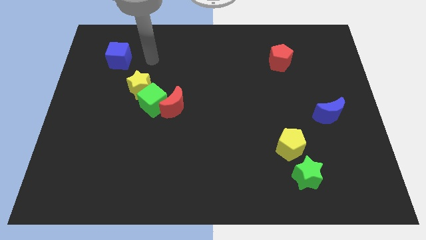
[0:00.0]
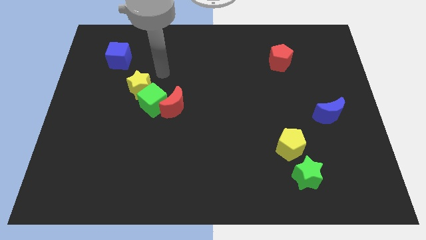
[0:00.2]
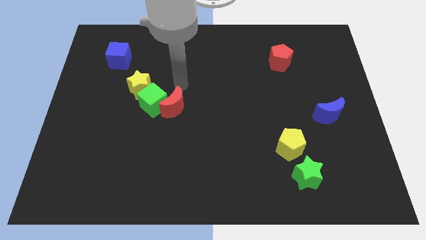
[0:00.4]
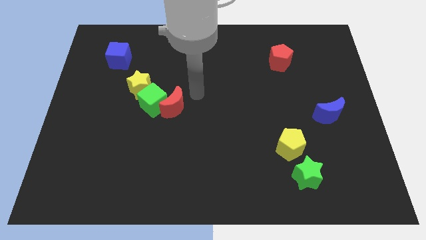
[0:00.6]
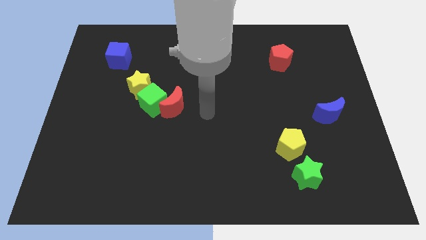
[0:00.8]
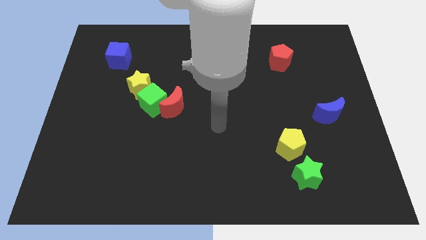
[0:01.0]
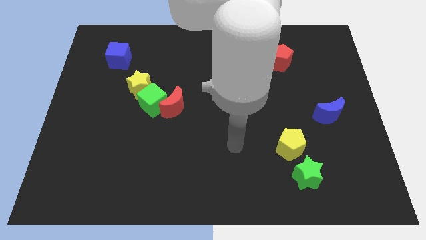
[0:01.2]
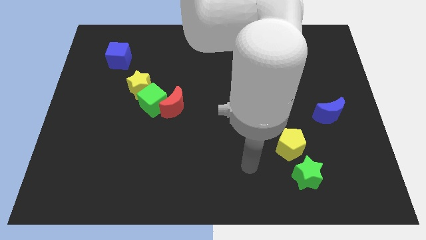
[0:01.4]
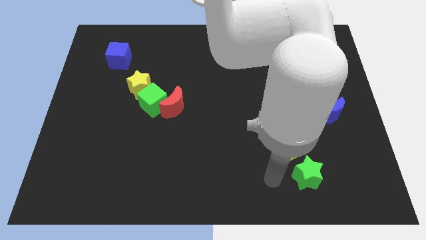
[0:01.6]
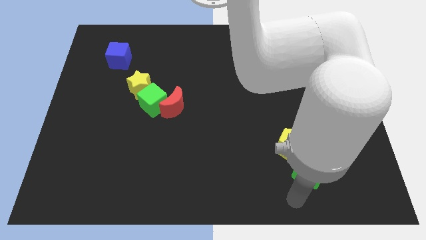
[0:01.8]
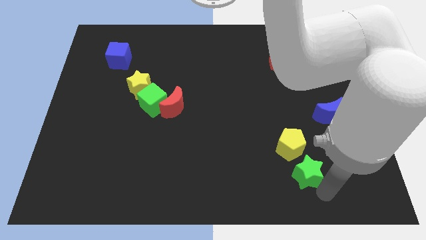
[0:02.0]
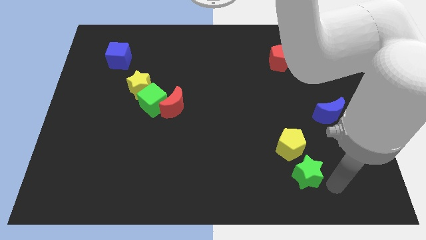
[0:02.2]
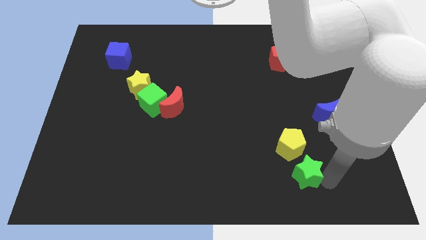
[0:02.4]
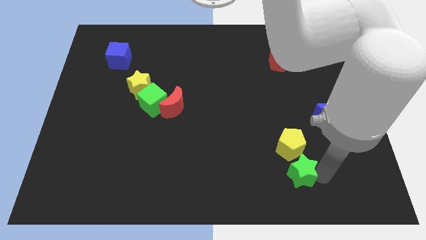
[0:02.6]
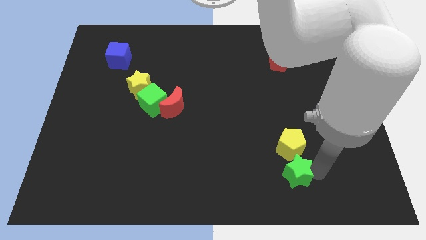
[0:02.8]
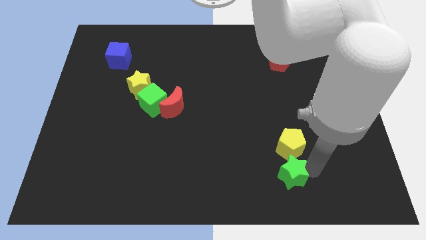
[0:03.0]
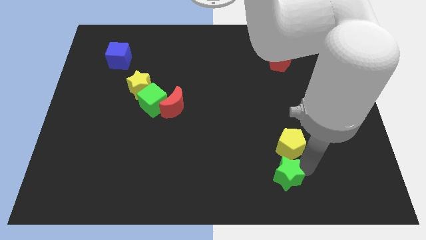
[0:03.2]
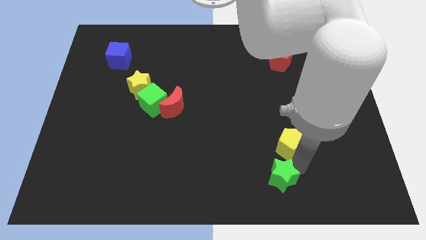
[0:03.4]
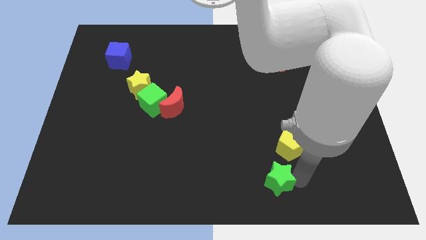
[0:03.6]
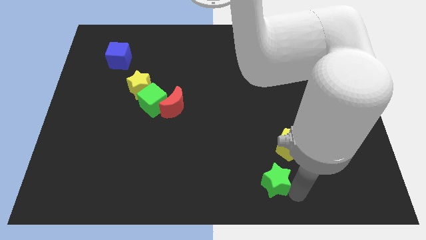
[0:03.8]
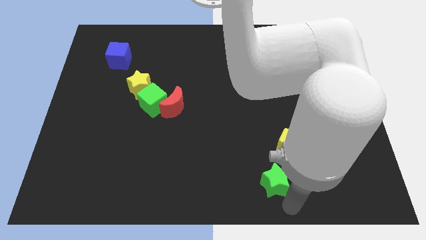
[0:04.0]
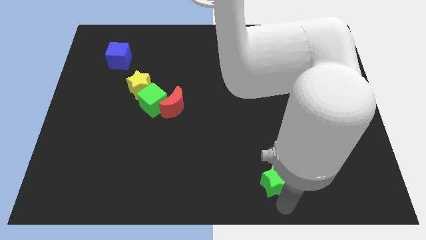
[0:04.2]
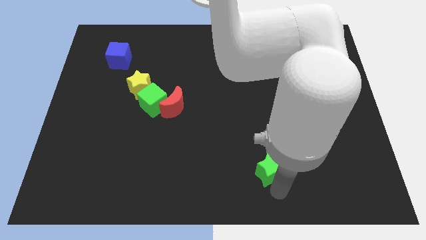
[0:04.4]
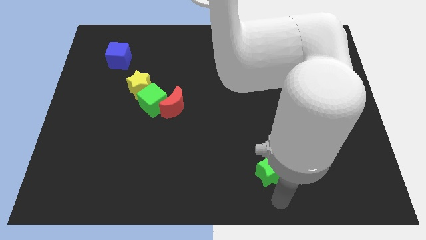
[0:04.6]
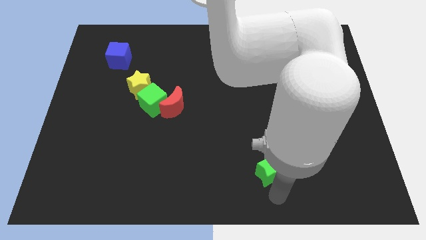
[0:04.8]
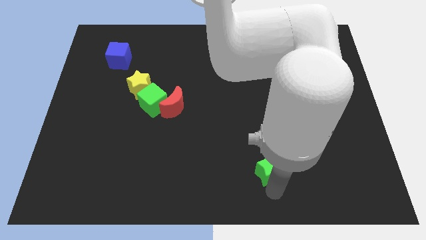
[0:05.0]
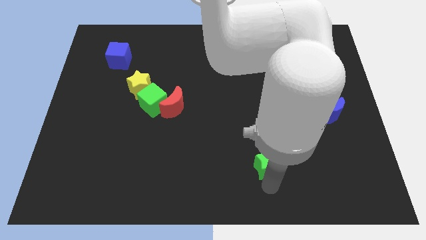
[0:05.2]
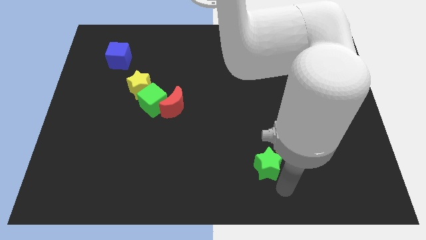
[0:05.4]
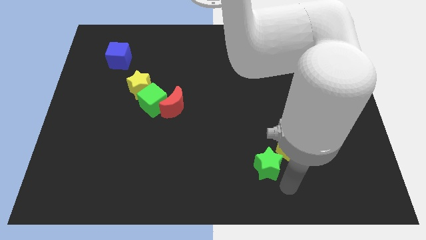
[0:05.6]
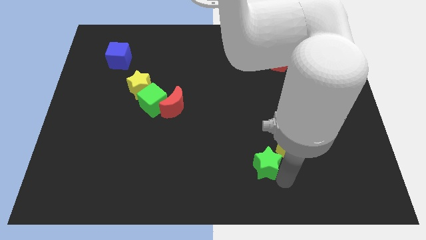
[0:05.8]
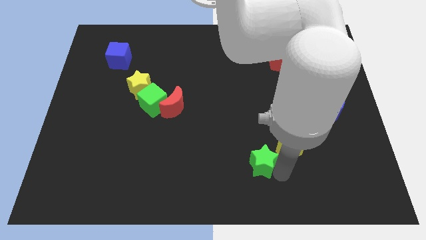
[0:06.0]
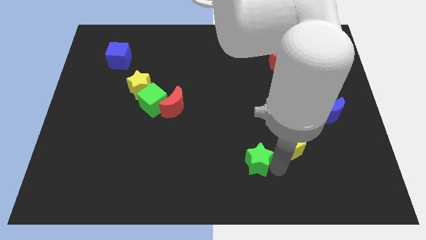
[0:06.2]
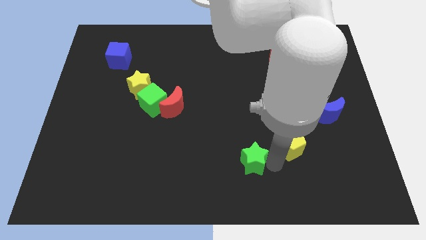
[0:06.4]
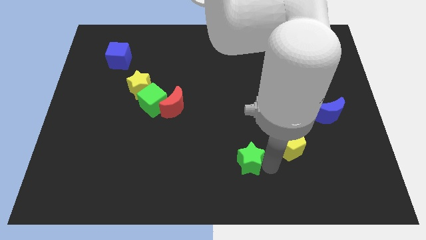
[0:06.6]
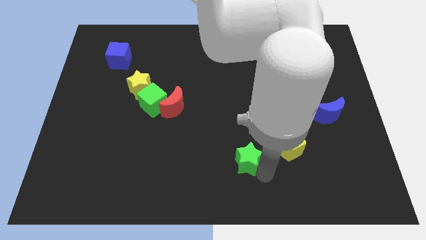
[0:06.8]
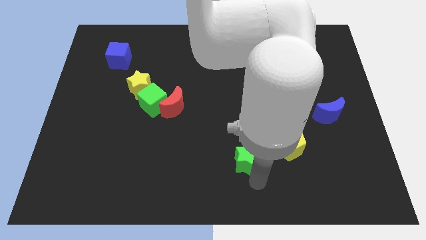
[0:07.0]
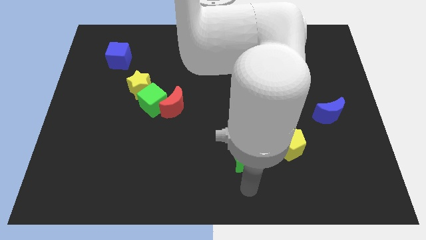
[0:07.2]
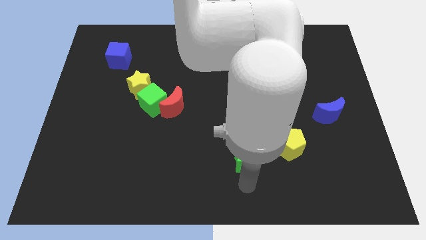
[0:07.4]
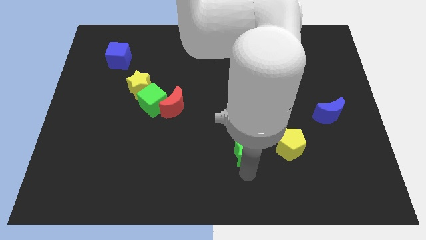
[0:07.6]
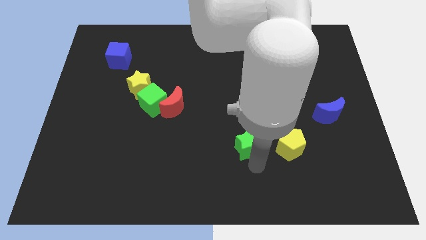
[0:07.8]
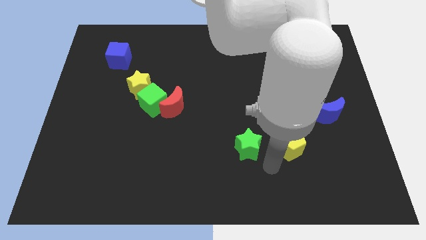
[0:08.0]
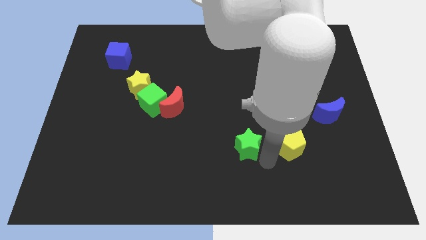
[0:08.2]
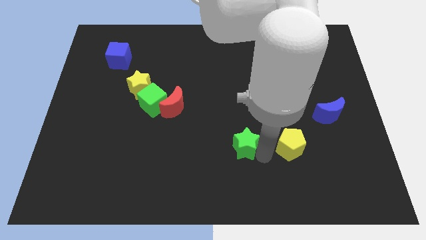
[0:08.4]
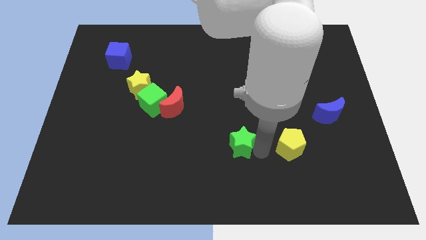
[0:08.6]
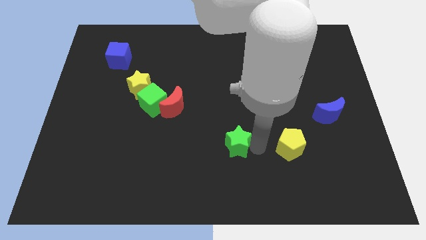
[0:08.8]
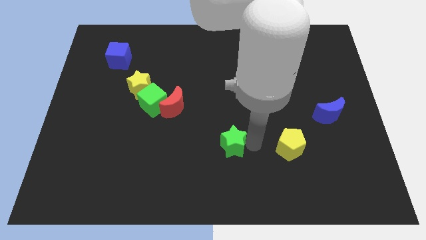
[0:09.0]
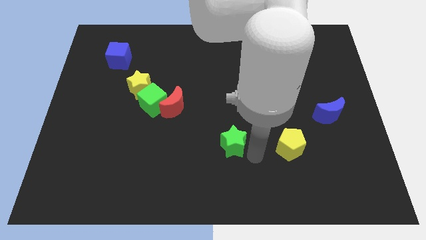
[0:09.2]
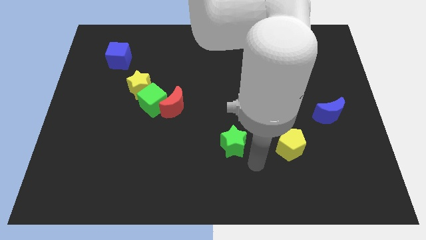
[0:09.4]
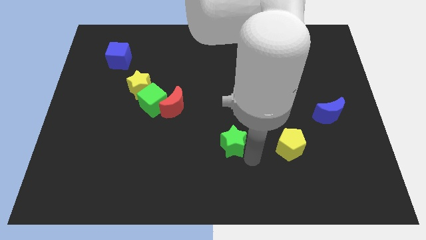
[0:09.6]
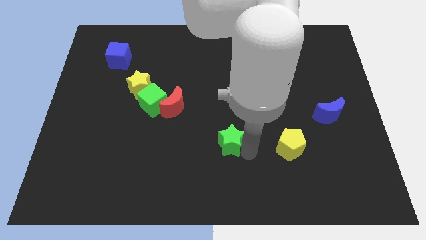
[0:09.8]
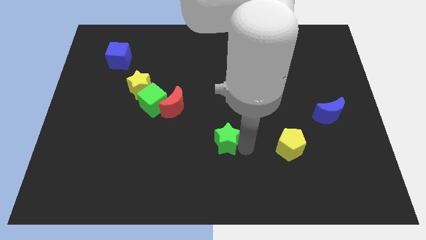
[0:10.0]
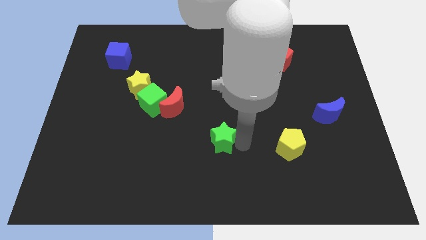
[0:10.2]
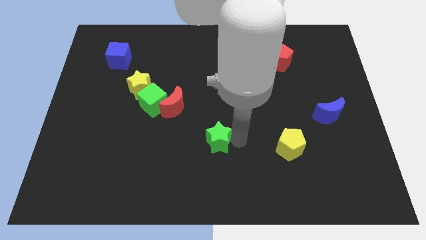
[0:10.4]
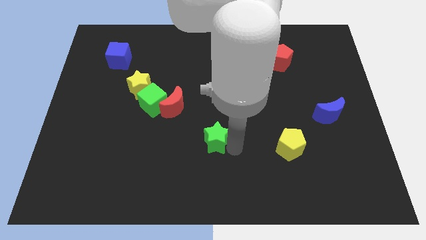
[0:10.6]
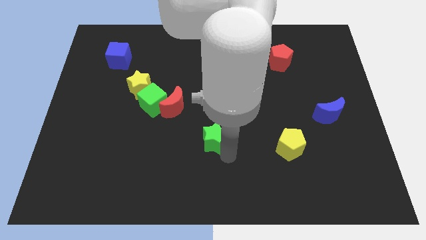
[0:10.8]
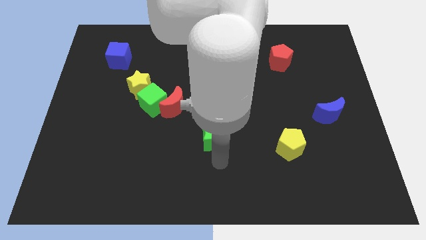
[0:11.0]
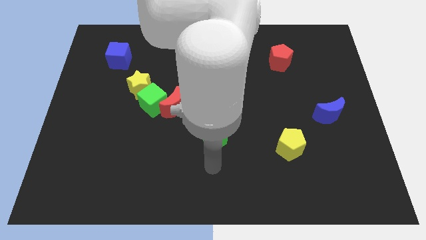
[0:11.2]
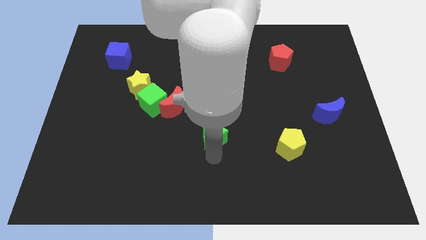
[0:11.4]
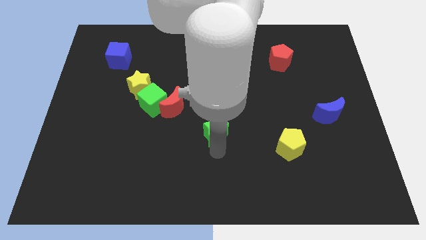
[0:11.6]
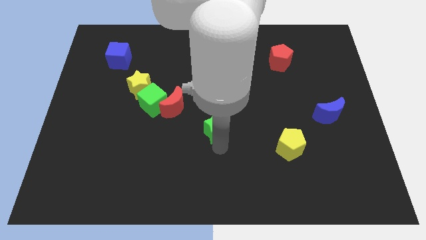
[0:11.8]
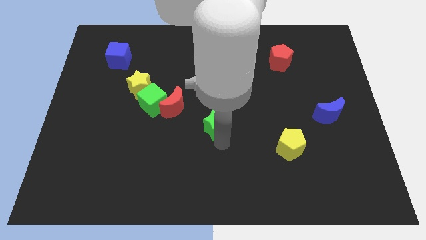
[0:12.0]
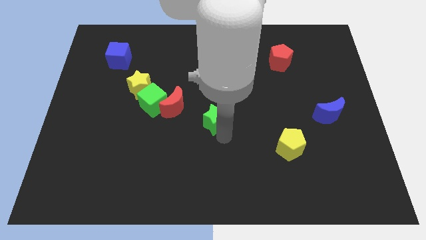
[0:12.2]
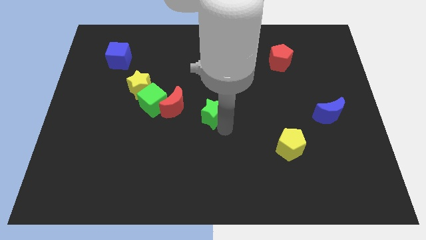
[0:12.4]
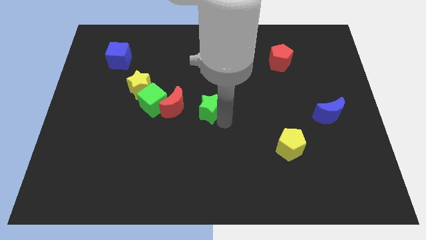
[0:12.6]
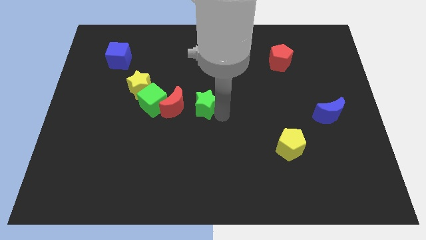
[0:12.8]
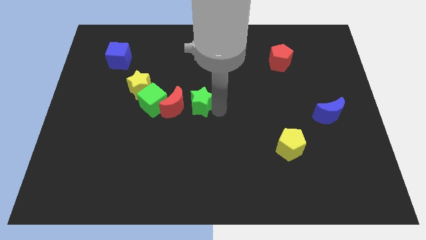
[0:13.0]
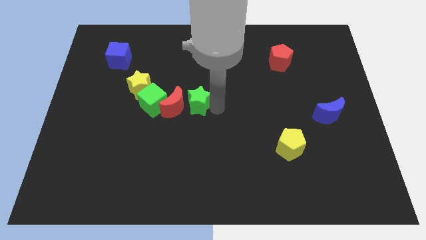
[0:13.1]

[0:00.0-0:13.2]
put the green star close to the red moon
